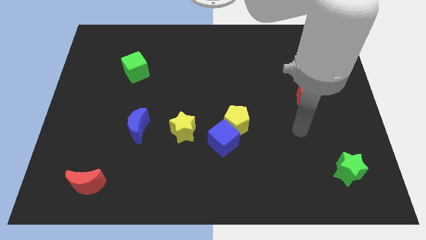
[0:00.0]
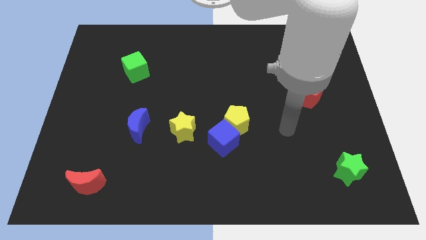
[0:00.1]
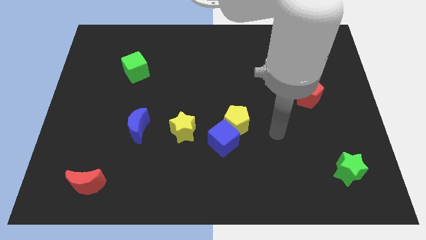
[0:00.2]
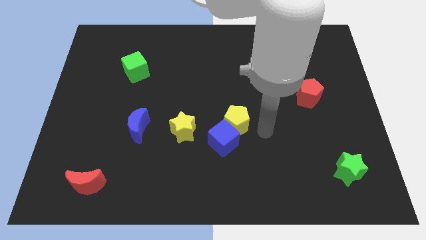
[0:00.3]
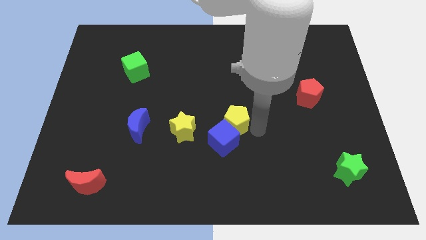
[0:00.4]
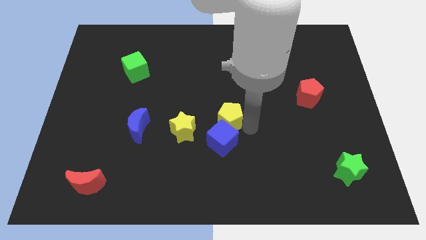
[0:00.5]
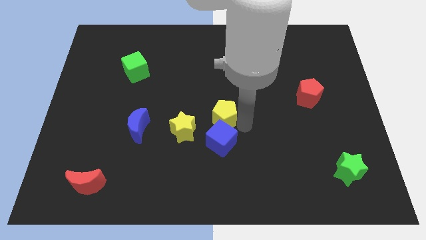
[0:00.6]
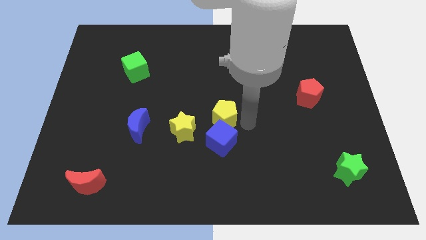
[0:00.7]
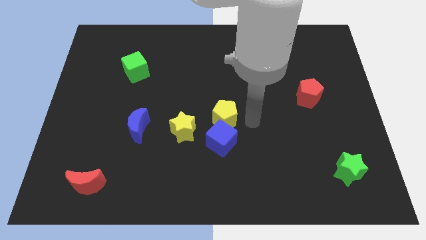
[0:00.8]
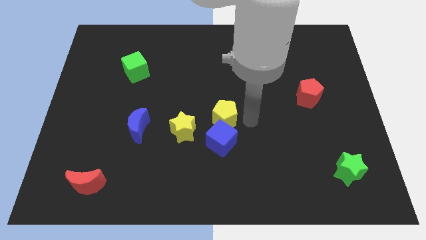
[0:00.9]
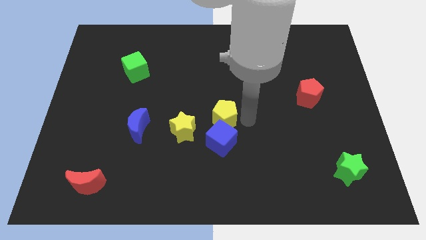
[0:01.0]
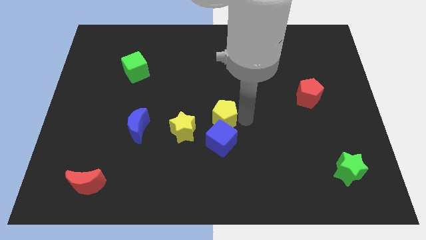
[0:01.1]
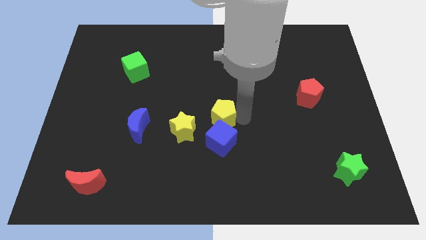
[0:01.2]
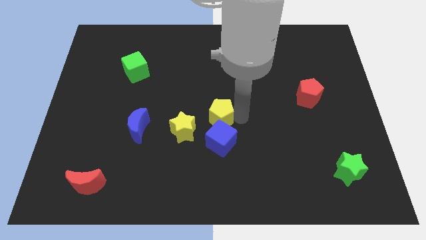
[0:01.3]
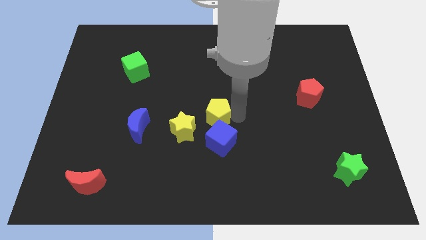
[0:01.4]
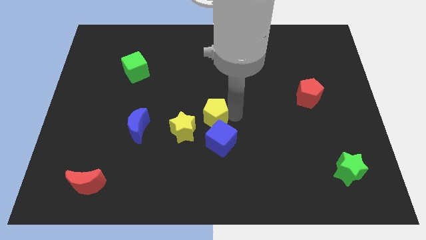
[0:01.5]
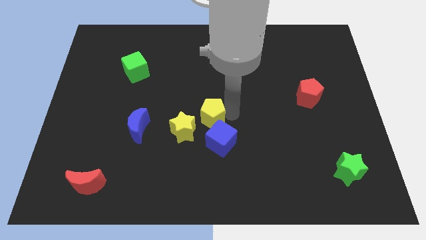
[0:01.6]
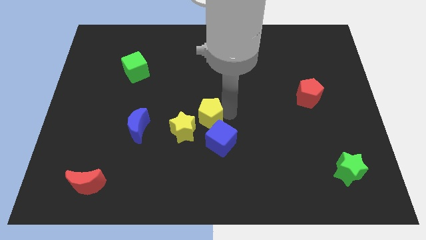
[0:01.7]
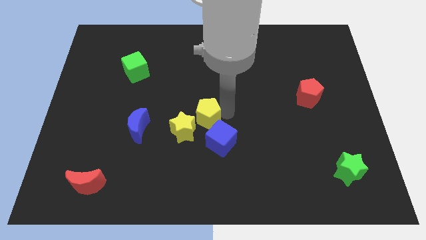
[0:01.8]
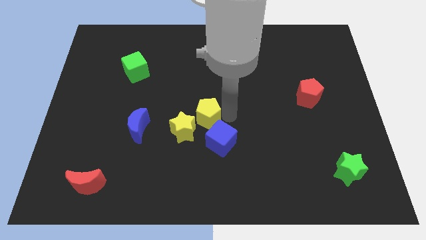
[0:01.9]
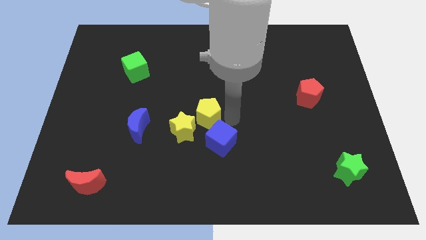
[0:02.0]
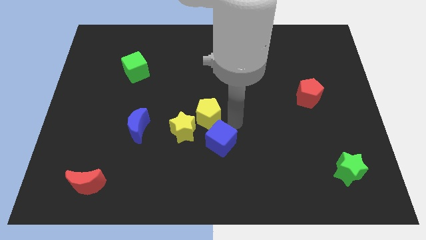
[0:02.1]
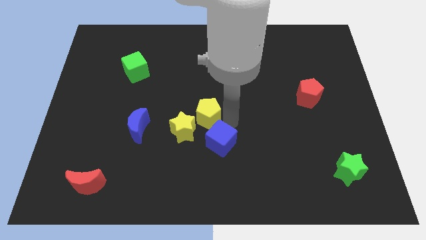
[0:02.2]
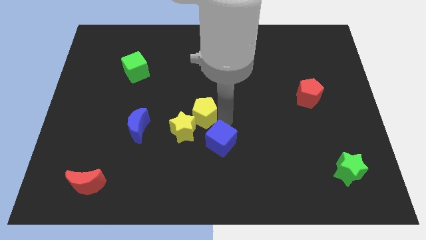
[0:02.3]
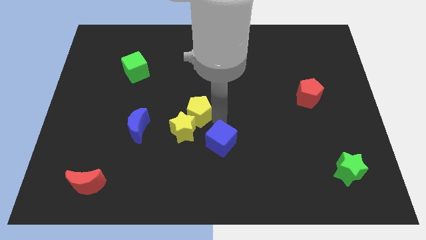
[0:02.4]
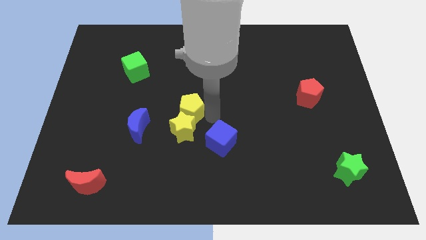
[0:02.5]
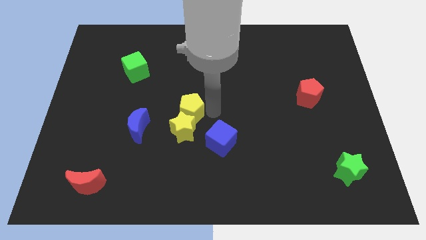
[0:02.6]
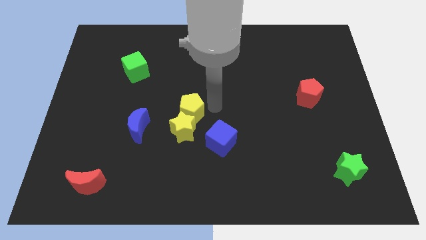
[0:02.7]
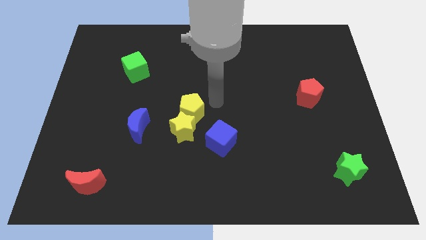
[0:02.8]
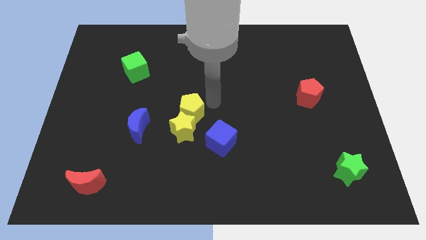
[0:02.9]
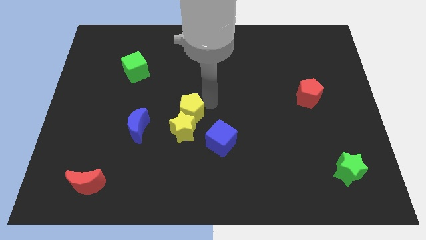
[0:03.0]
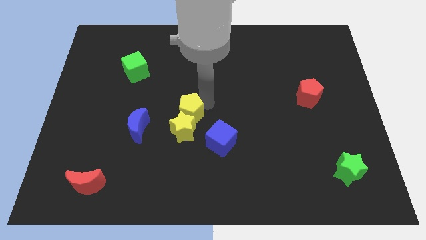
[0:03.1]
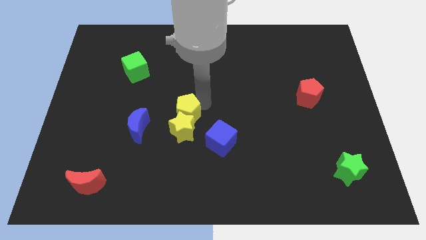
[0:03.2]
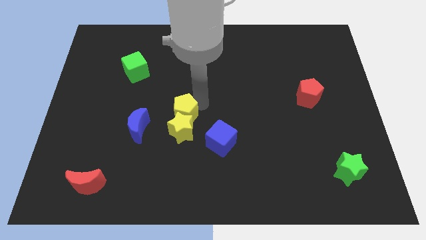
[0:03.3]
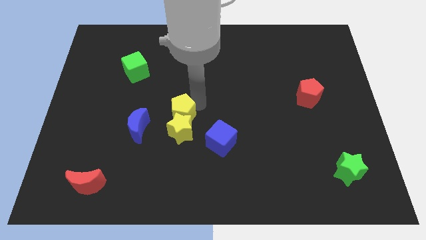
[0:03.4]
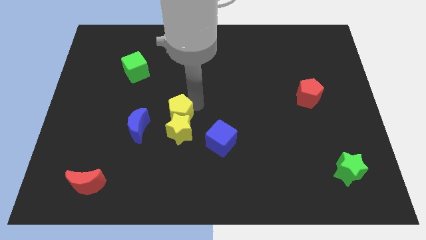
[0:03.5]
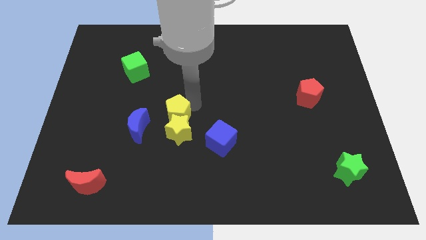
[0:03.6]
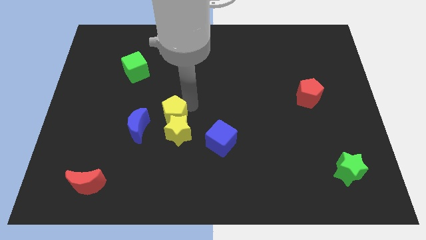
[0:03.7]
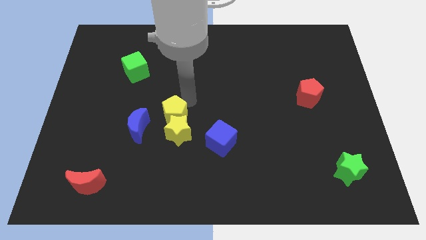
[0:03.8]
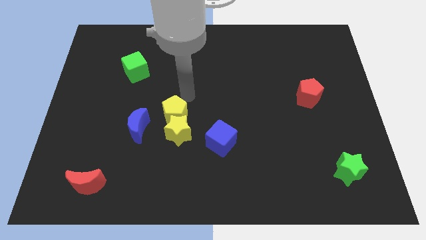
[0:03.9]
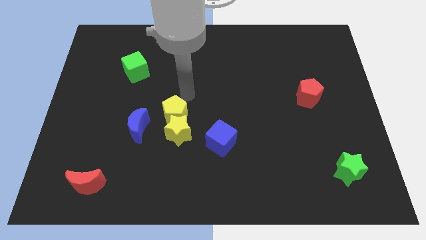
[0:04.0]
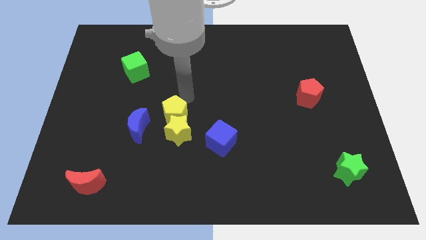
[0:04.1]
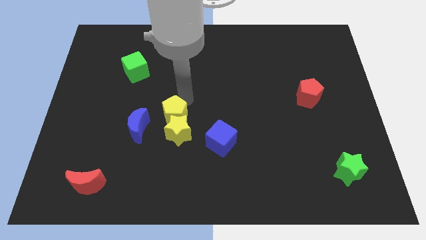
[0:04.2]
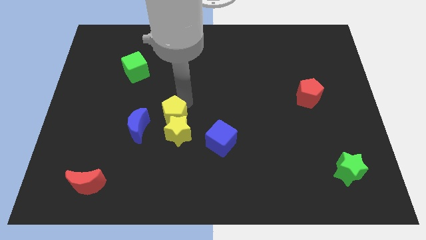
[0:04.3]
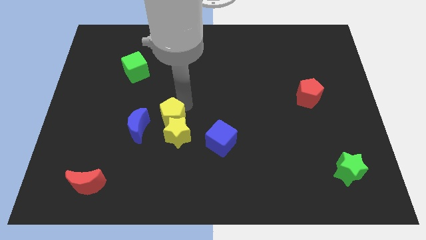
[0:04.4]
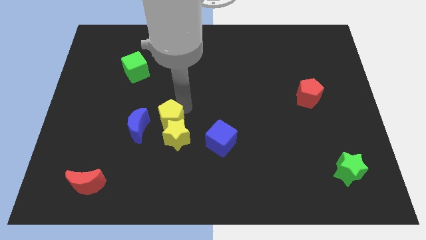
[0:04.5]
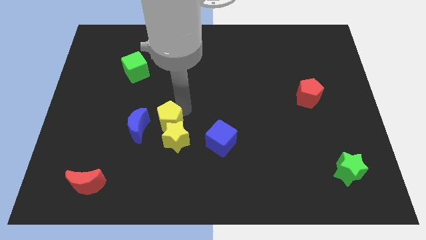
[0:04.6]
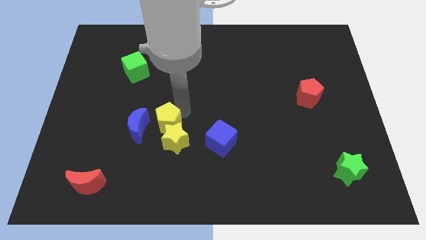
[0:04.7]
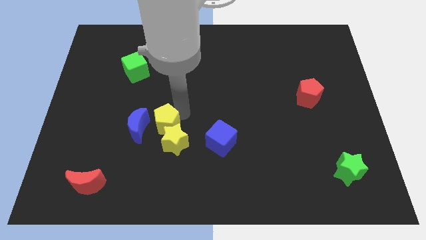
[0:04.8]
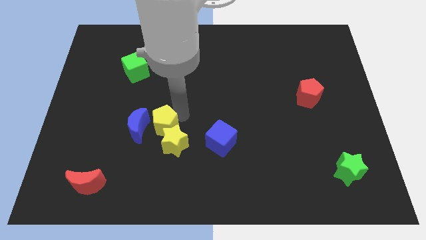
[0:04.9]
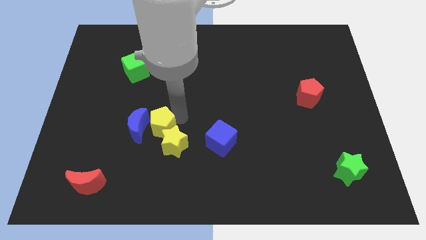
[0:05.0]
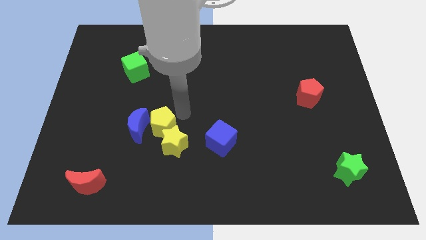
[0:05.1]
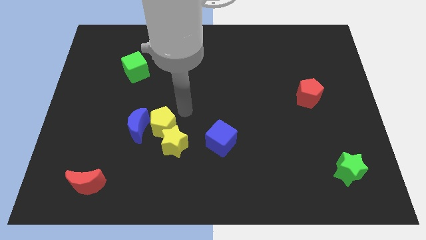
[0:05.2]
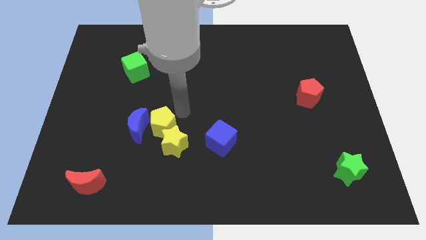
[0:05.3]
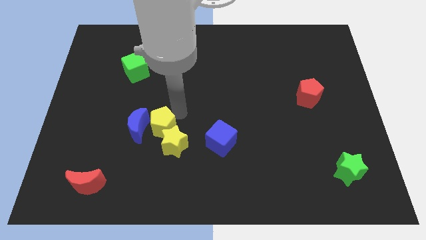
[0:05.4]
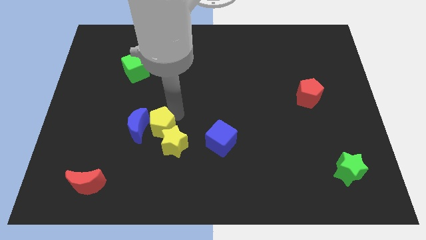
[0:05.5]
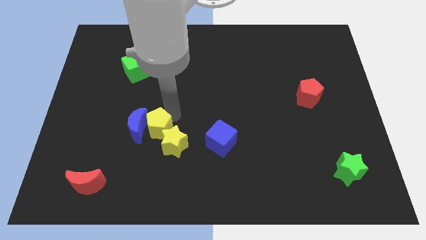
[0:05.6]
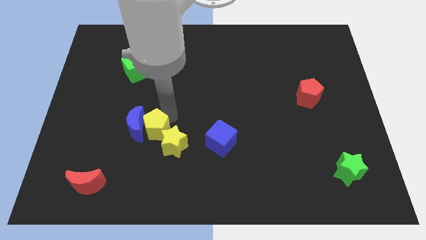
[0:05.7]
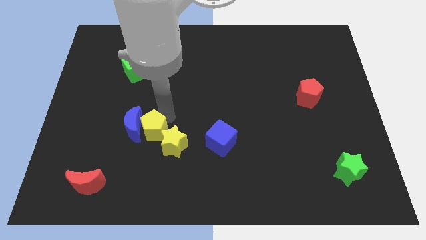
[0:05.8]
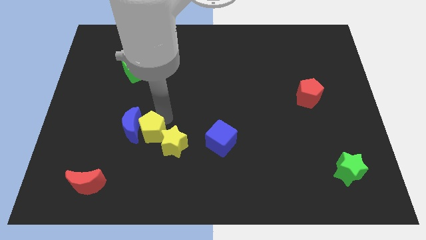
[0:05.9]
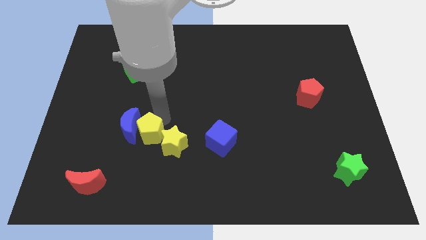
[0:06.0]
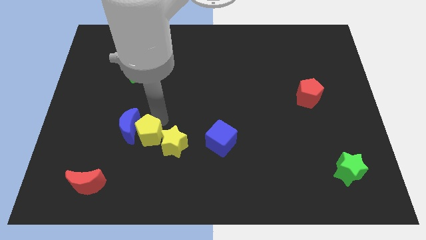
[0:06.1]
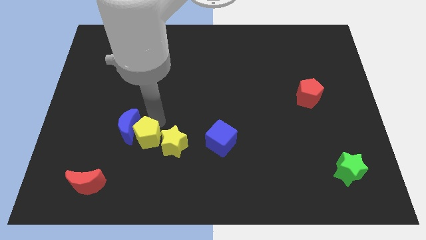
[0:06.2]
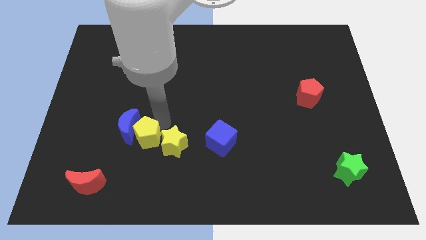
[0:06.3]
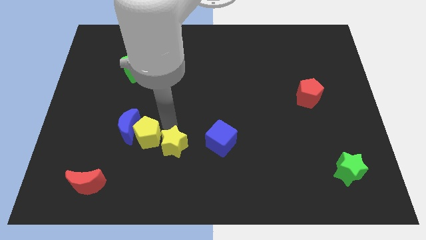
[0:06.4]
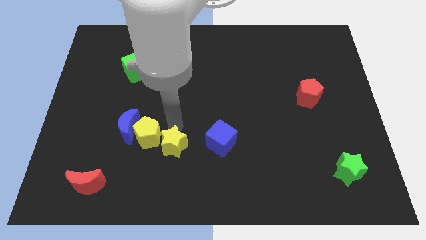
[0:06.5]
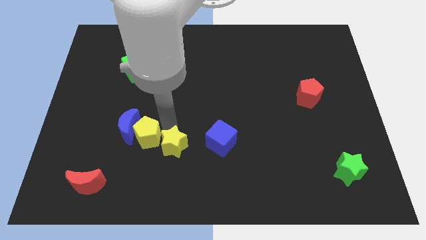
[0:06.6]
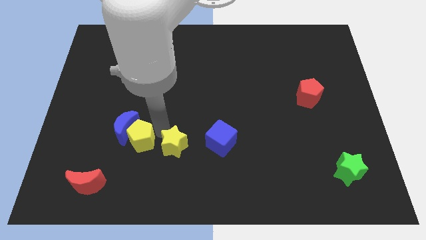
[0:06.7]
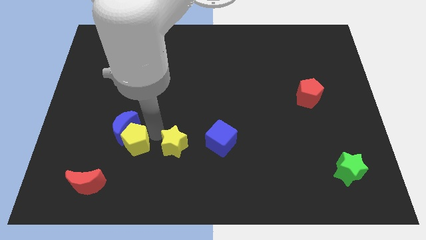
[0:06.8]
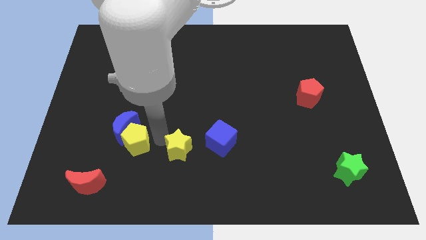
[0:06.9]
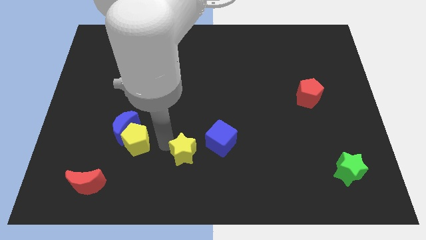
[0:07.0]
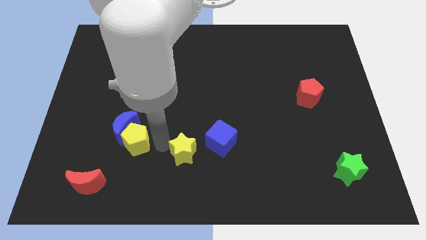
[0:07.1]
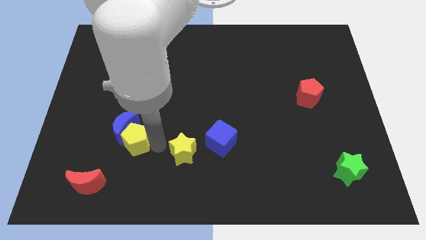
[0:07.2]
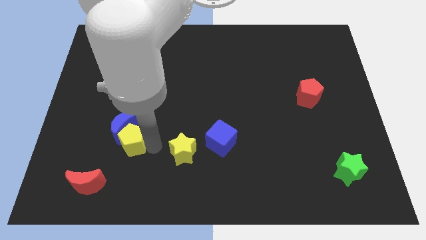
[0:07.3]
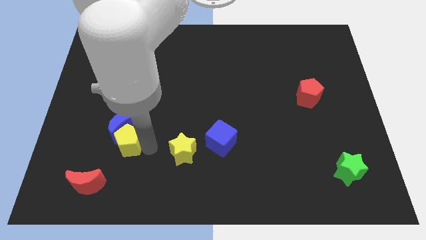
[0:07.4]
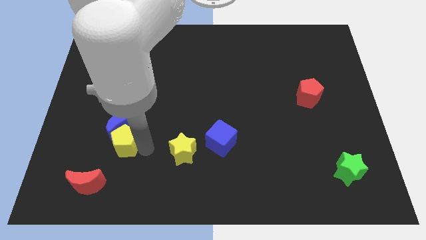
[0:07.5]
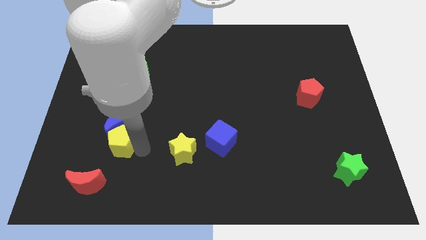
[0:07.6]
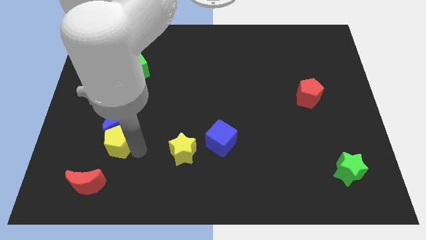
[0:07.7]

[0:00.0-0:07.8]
put the yellow pentagon to the top side of the red moon
